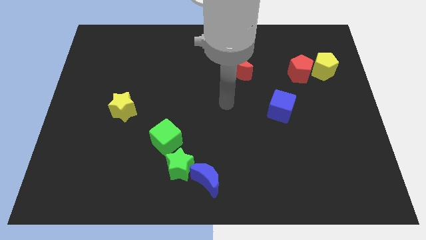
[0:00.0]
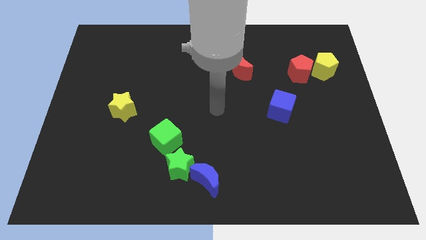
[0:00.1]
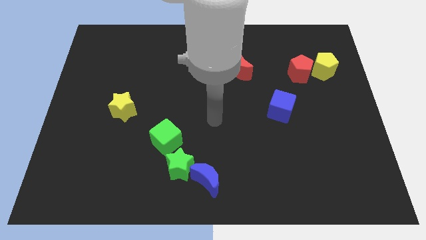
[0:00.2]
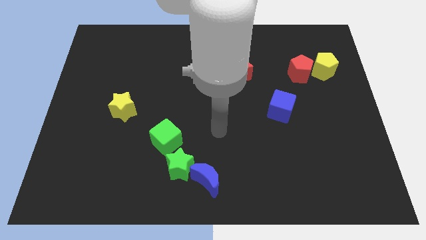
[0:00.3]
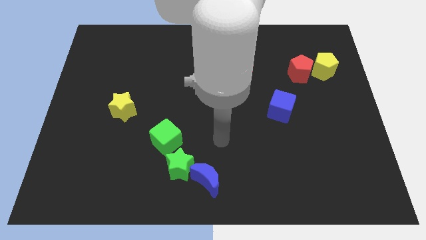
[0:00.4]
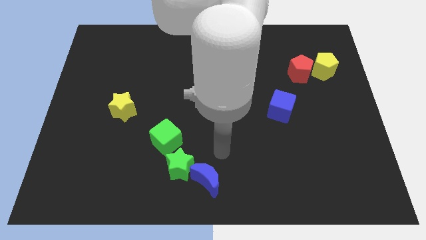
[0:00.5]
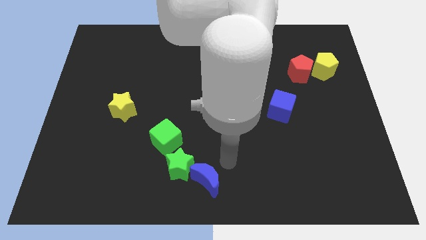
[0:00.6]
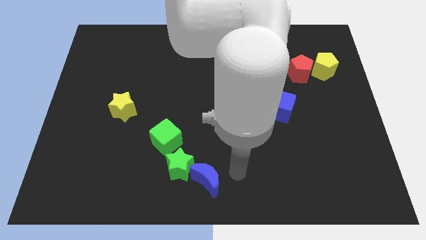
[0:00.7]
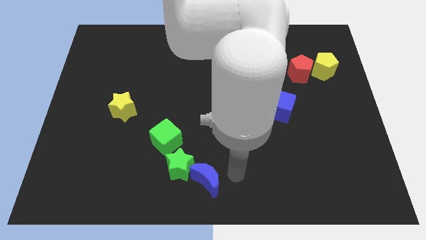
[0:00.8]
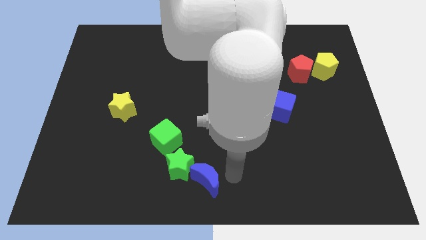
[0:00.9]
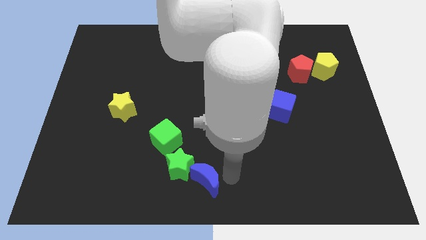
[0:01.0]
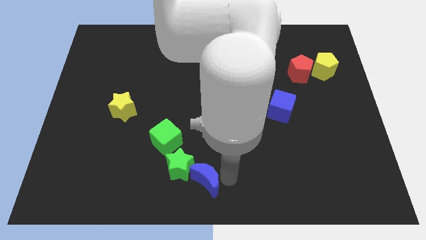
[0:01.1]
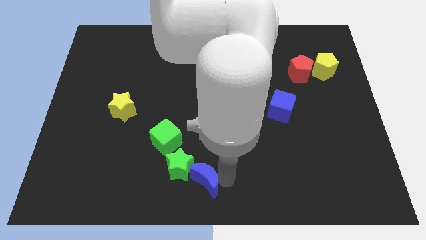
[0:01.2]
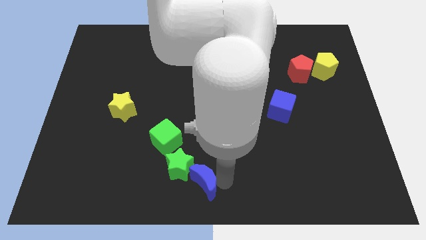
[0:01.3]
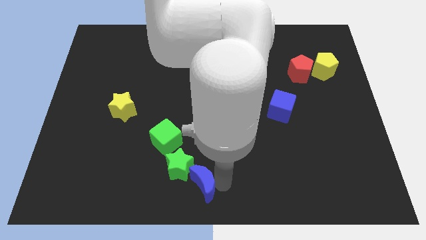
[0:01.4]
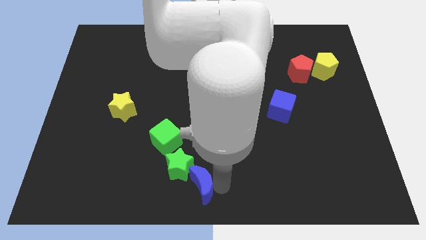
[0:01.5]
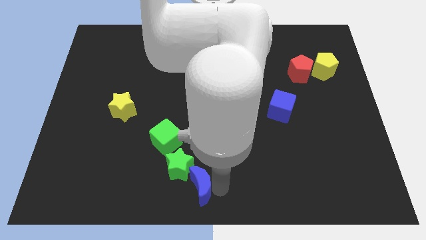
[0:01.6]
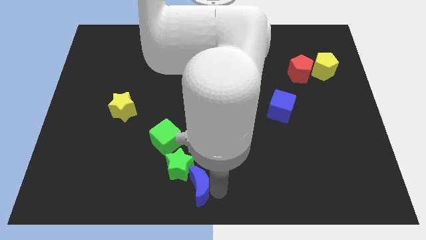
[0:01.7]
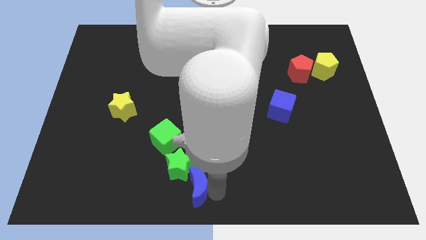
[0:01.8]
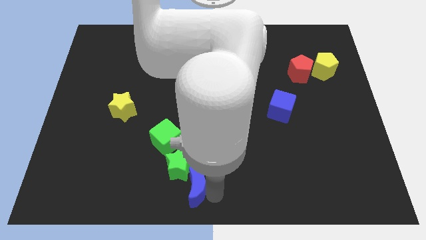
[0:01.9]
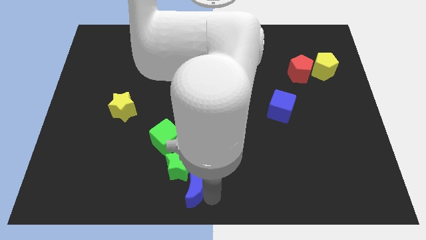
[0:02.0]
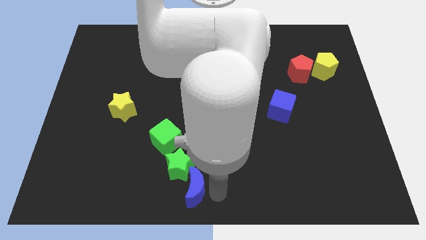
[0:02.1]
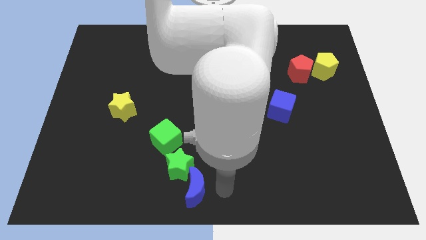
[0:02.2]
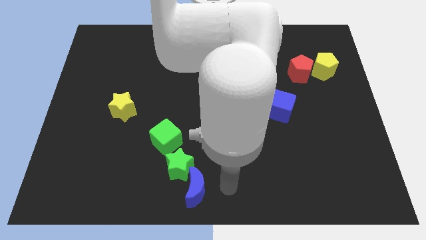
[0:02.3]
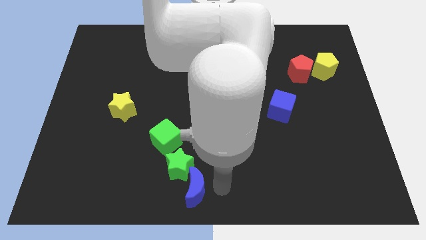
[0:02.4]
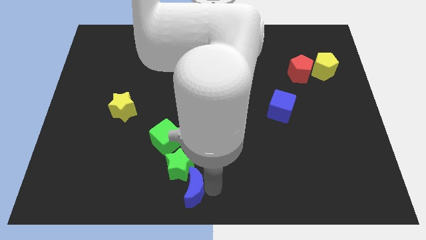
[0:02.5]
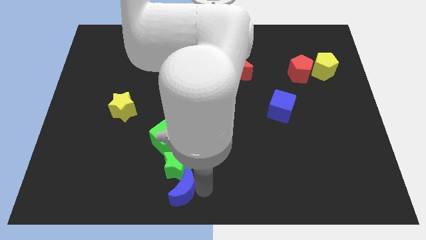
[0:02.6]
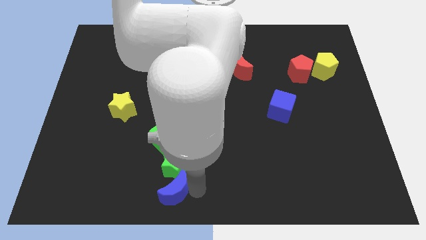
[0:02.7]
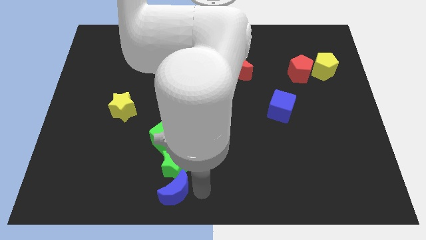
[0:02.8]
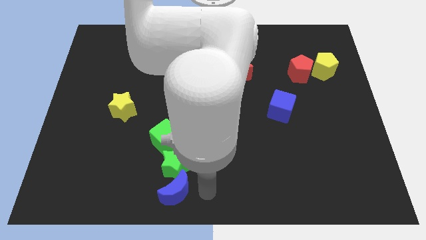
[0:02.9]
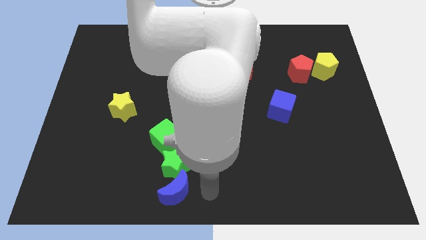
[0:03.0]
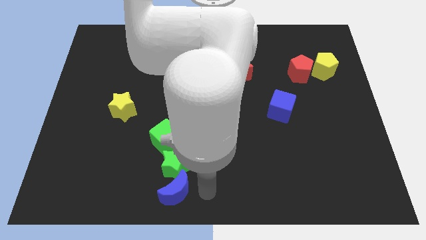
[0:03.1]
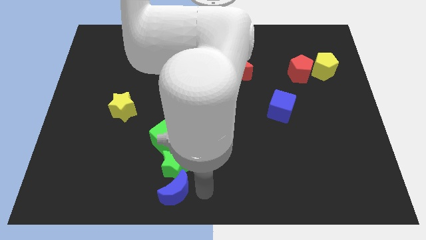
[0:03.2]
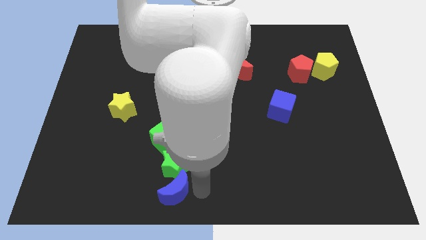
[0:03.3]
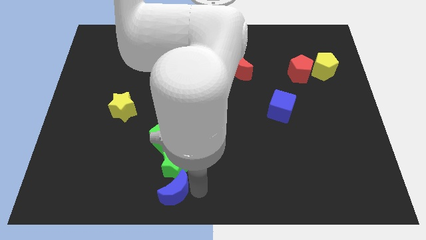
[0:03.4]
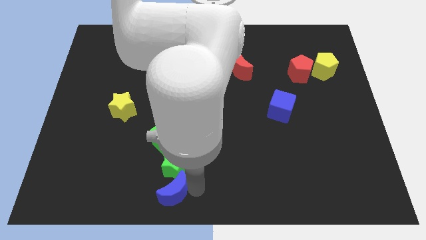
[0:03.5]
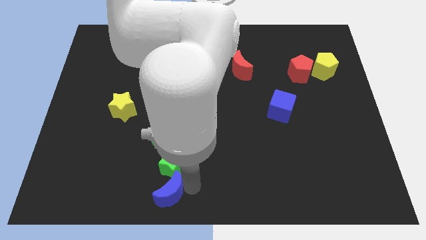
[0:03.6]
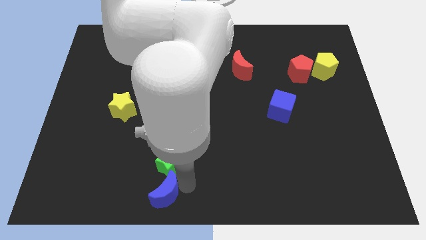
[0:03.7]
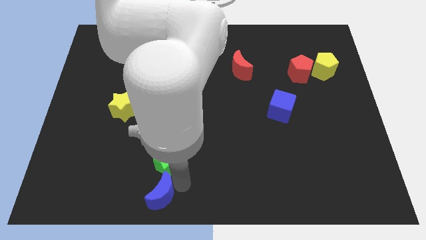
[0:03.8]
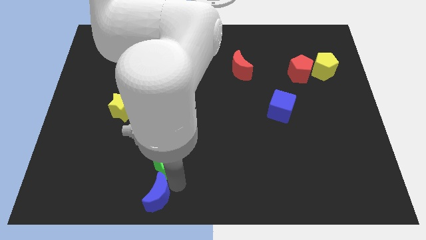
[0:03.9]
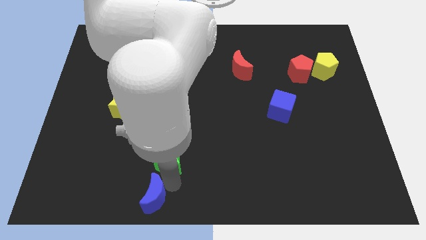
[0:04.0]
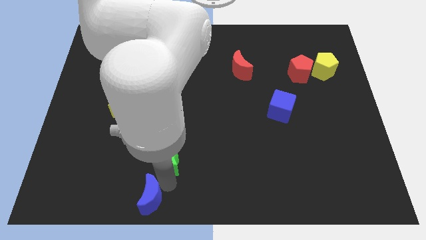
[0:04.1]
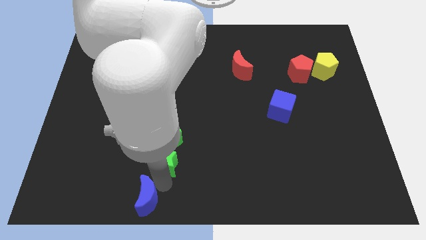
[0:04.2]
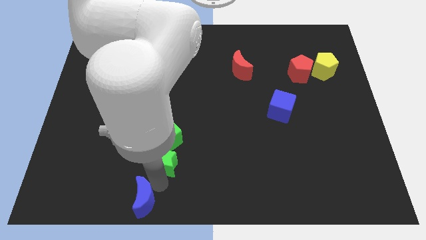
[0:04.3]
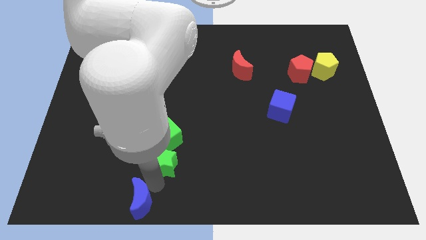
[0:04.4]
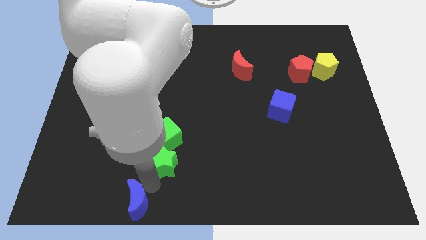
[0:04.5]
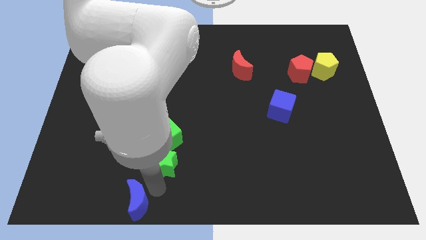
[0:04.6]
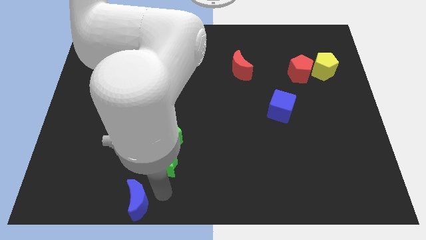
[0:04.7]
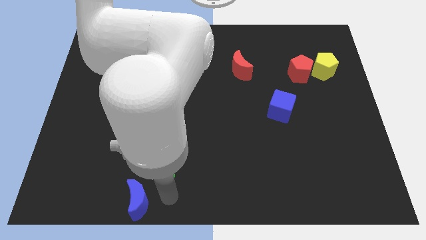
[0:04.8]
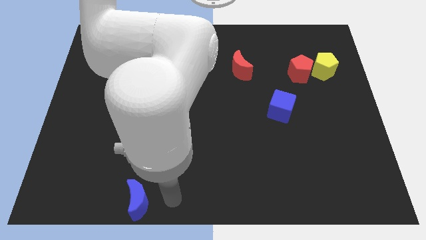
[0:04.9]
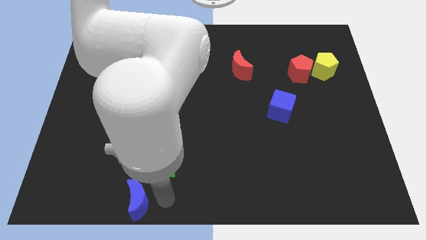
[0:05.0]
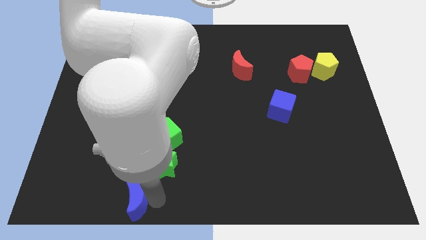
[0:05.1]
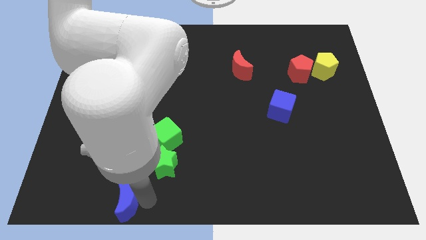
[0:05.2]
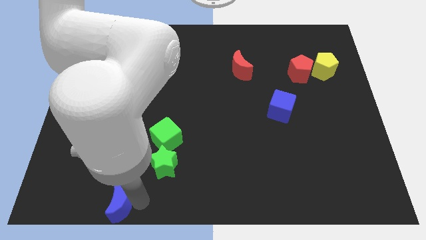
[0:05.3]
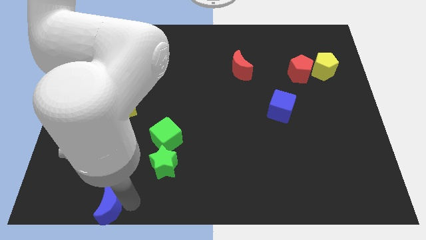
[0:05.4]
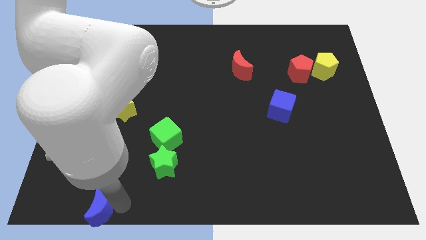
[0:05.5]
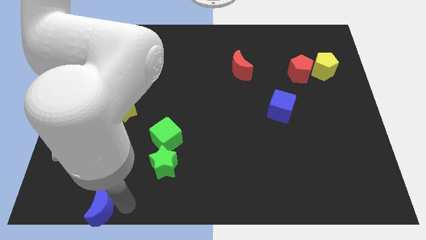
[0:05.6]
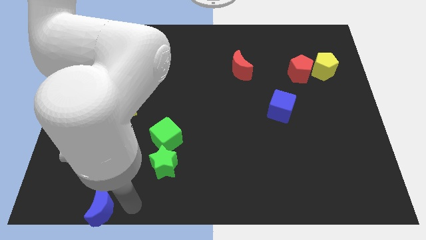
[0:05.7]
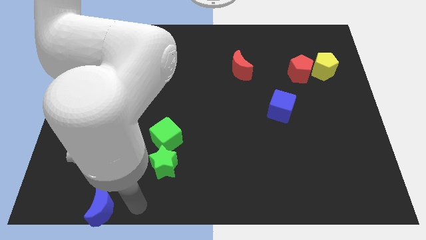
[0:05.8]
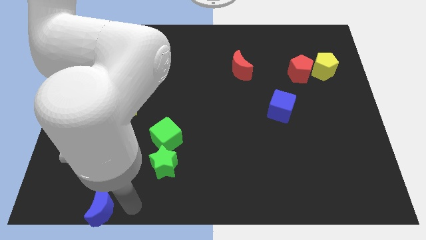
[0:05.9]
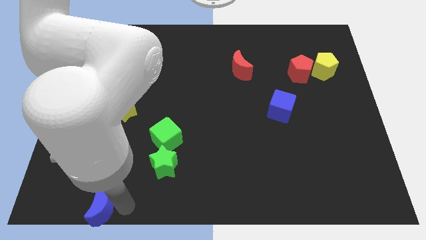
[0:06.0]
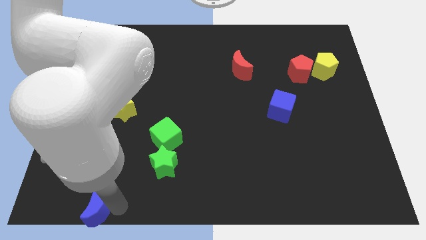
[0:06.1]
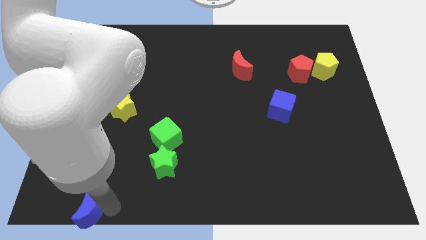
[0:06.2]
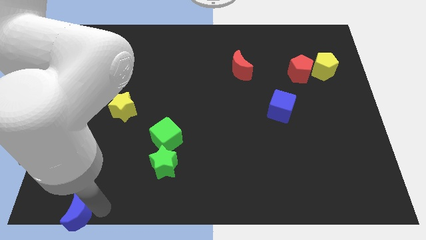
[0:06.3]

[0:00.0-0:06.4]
slide the blue moon to the bottom left of the board

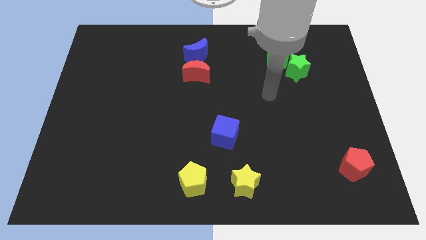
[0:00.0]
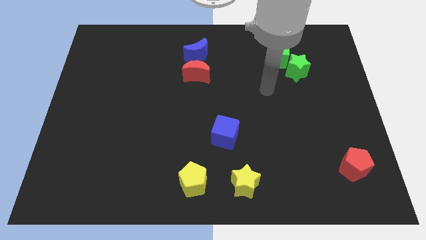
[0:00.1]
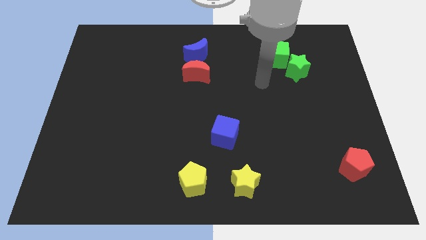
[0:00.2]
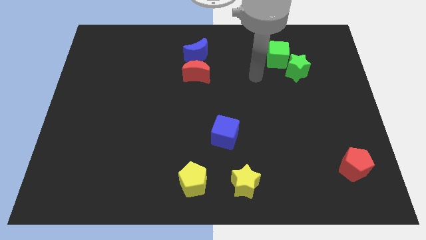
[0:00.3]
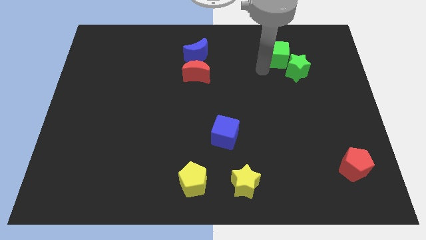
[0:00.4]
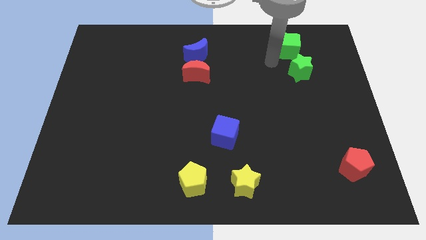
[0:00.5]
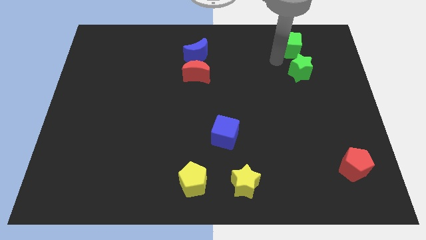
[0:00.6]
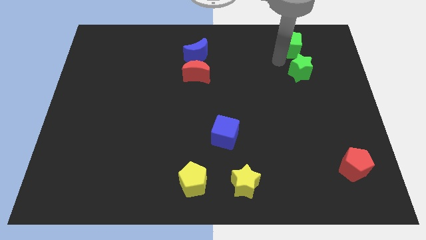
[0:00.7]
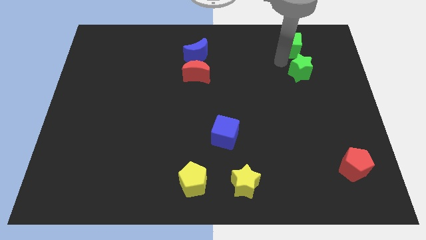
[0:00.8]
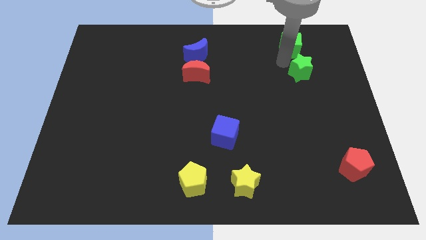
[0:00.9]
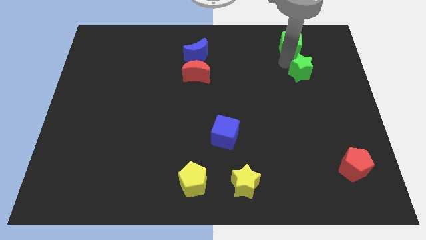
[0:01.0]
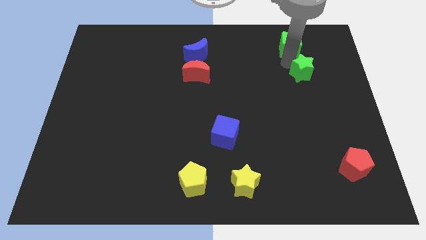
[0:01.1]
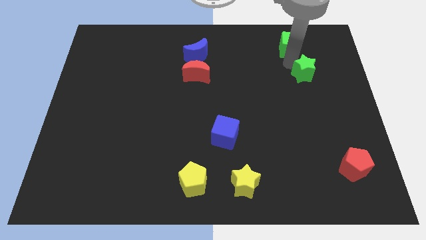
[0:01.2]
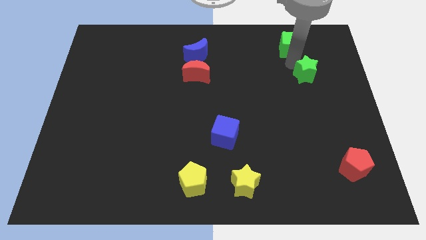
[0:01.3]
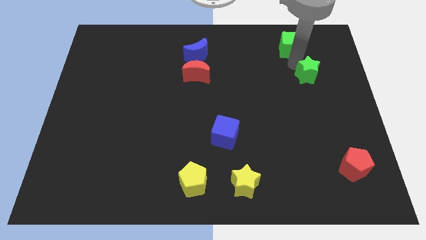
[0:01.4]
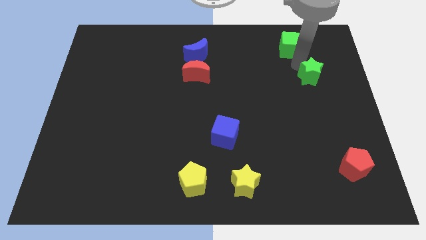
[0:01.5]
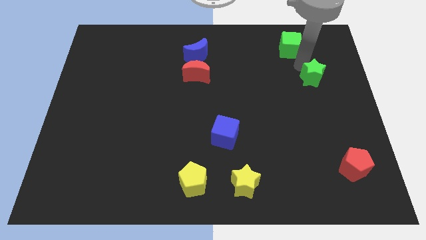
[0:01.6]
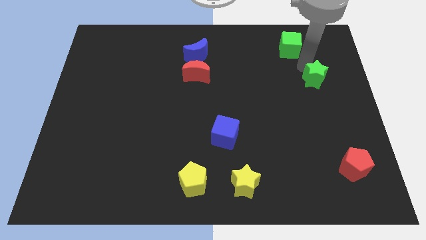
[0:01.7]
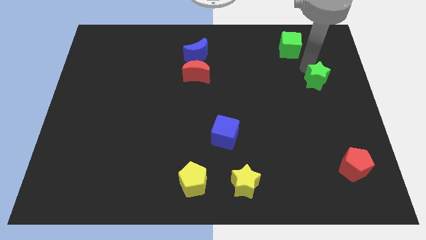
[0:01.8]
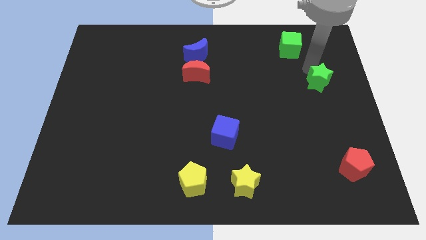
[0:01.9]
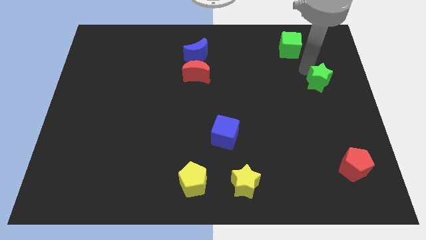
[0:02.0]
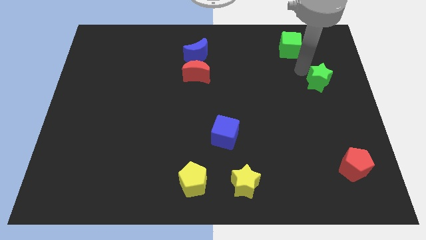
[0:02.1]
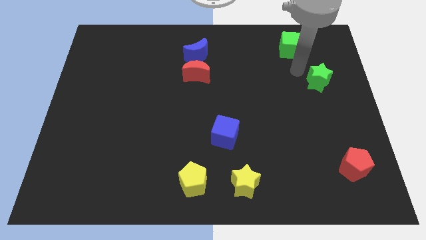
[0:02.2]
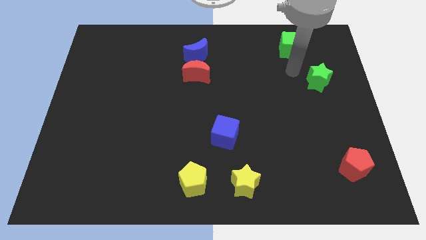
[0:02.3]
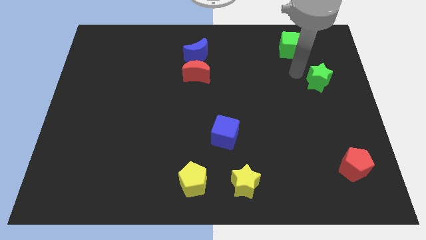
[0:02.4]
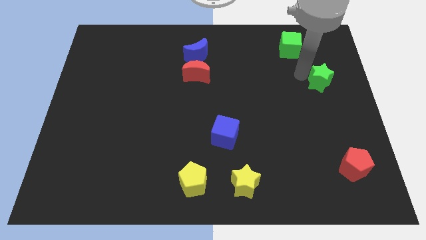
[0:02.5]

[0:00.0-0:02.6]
slide the green star to the right side of the board
